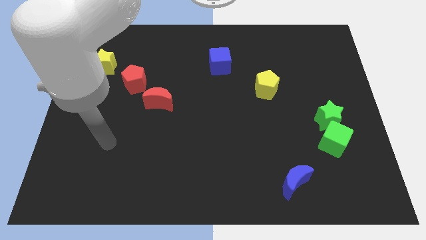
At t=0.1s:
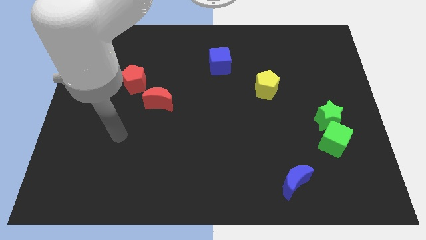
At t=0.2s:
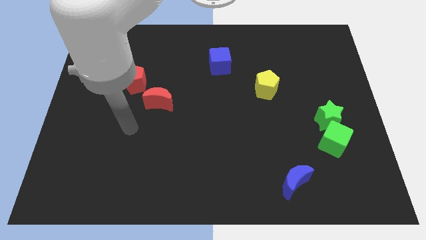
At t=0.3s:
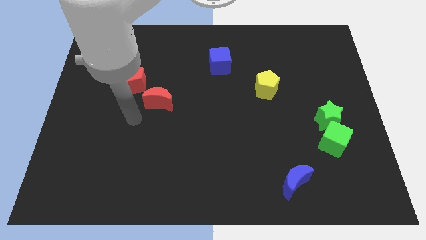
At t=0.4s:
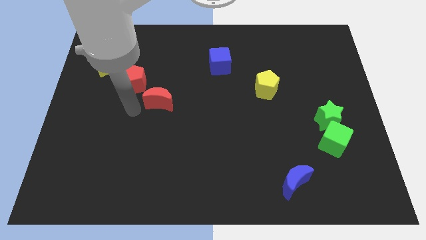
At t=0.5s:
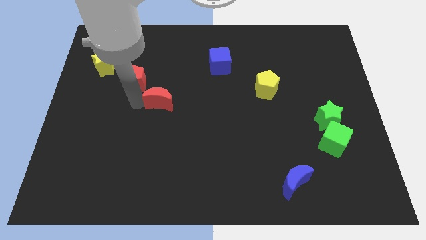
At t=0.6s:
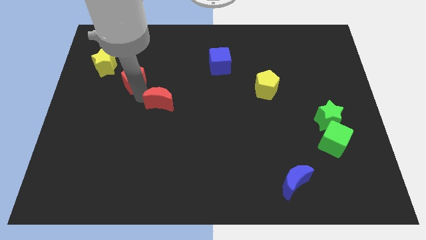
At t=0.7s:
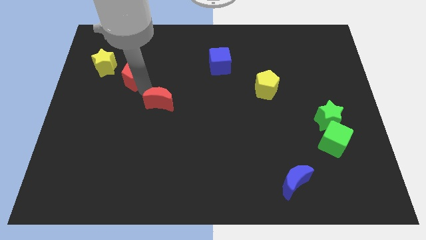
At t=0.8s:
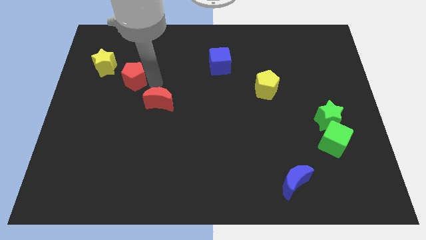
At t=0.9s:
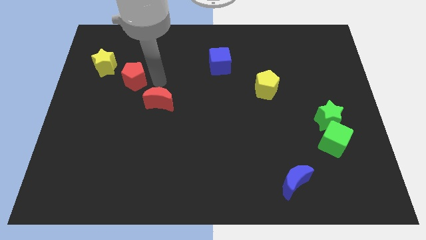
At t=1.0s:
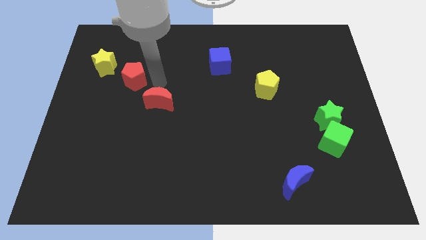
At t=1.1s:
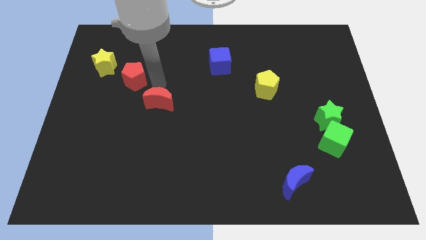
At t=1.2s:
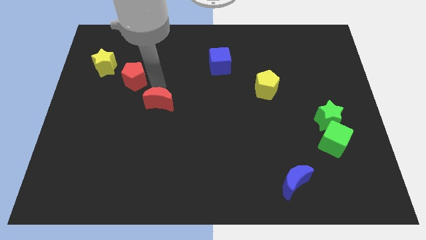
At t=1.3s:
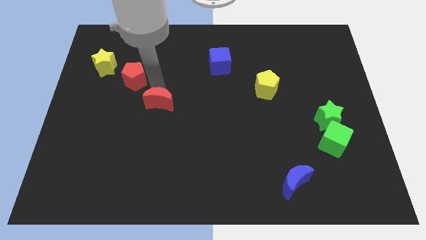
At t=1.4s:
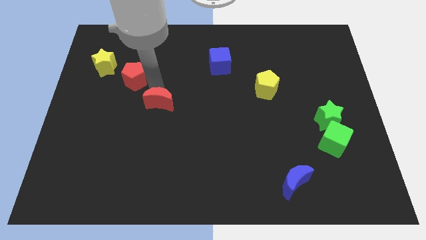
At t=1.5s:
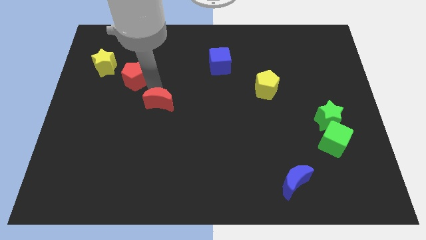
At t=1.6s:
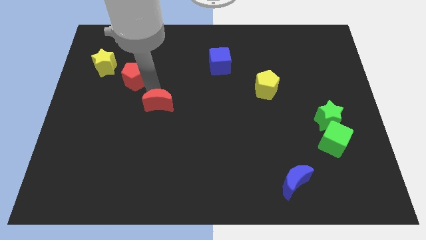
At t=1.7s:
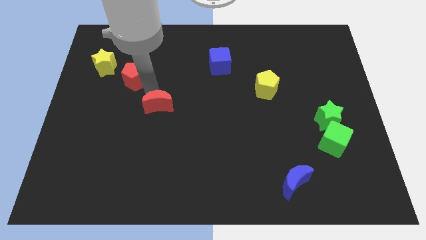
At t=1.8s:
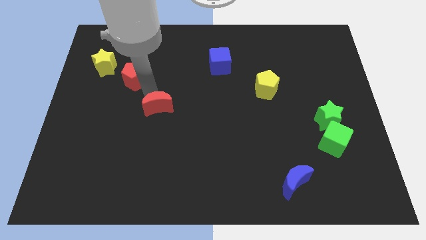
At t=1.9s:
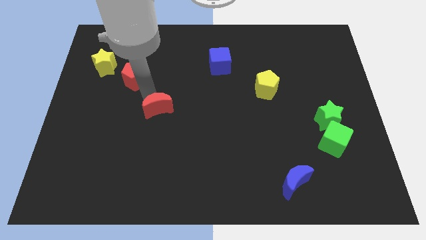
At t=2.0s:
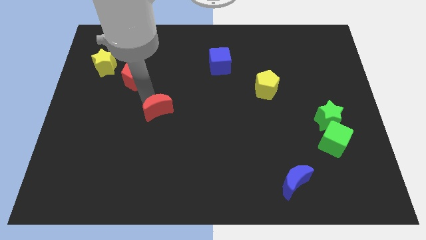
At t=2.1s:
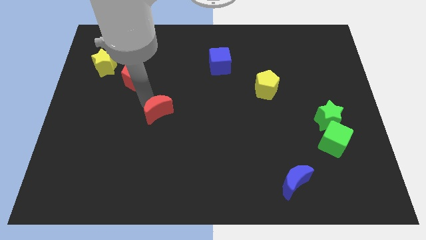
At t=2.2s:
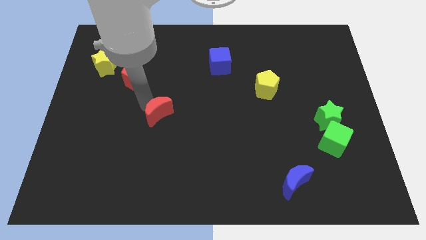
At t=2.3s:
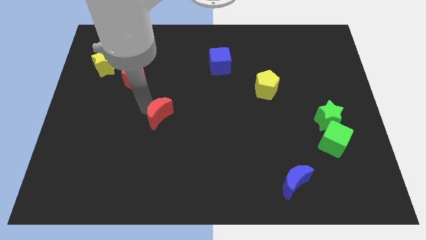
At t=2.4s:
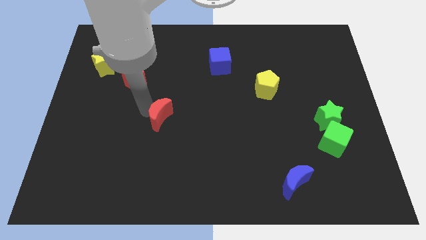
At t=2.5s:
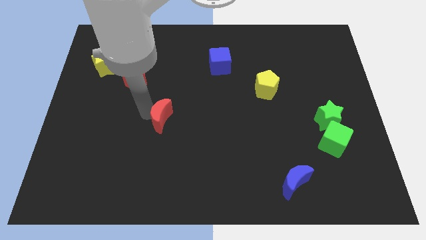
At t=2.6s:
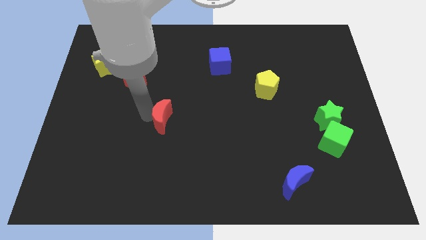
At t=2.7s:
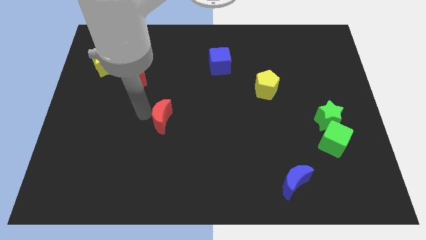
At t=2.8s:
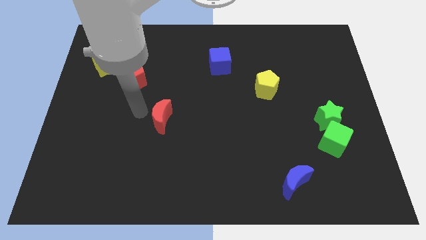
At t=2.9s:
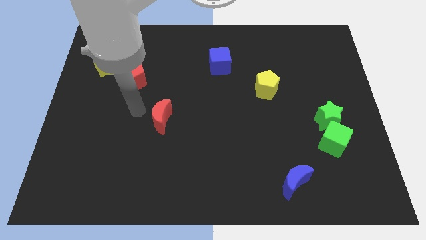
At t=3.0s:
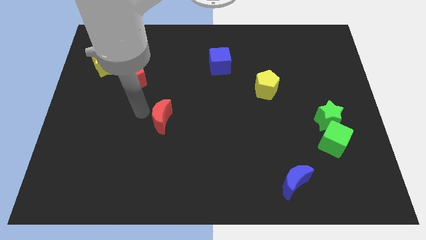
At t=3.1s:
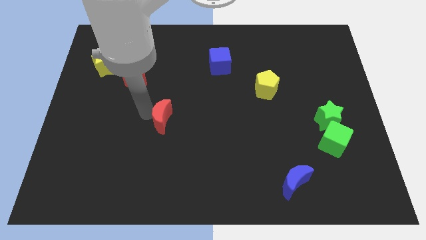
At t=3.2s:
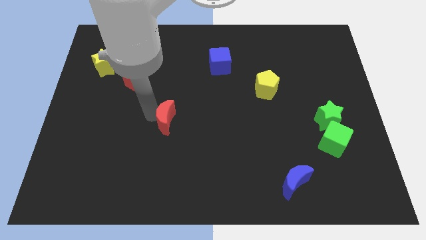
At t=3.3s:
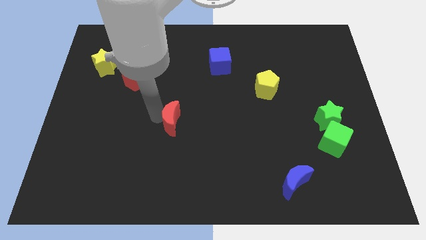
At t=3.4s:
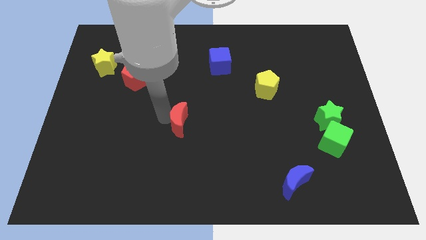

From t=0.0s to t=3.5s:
slide the red moon diagonally down and to the right slightly

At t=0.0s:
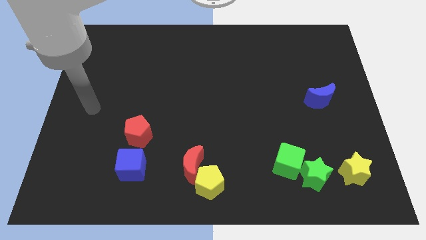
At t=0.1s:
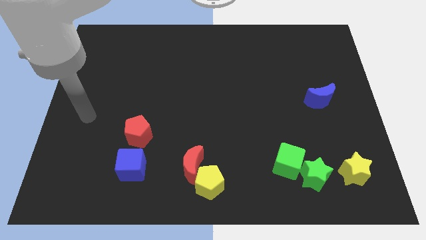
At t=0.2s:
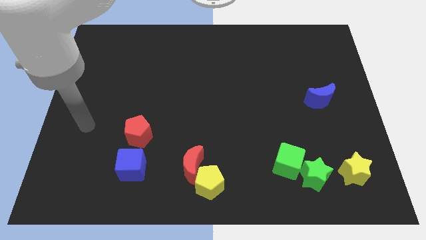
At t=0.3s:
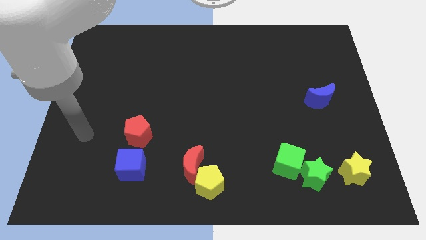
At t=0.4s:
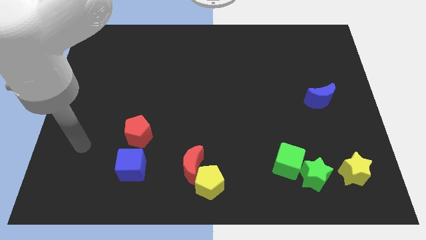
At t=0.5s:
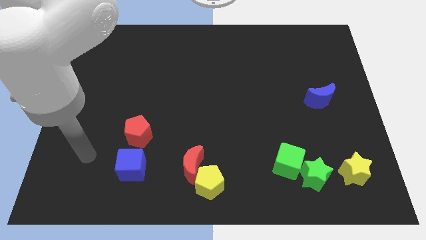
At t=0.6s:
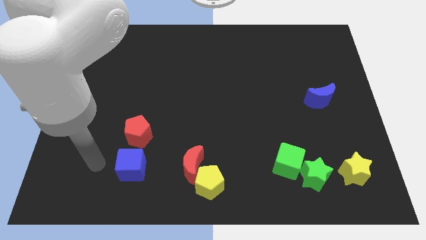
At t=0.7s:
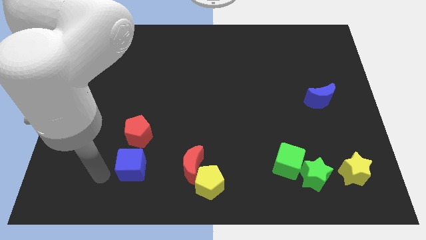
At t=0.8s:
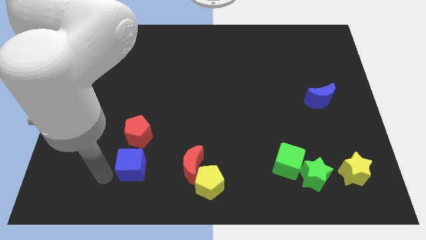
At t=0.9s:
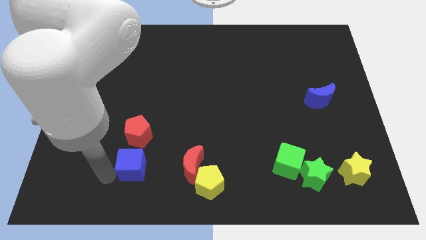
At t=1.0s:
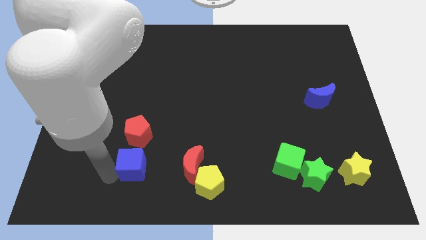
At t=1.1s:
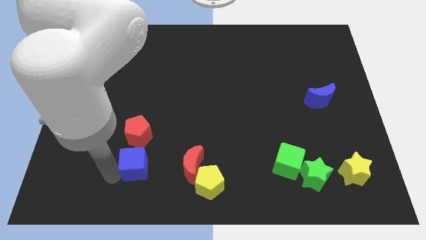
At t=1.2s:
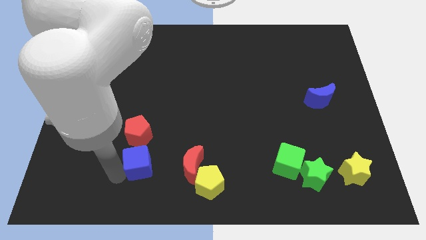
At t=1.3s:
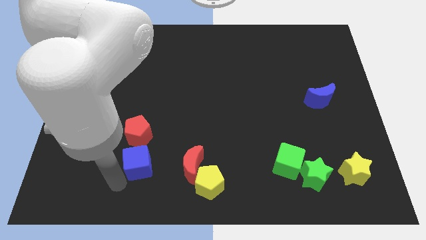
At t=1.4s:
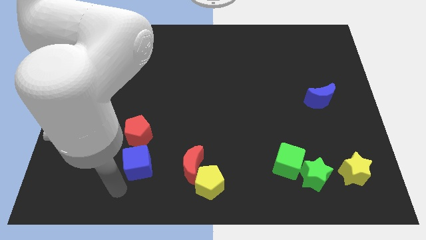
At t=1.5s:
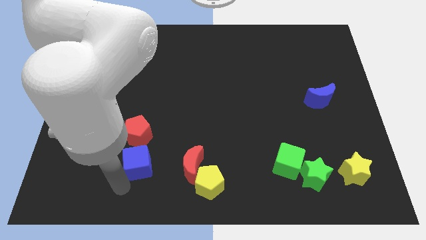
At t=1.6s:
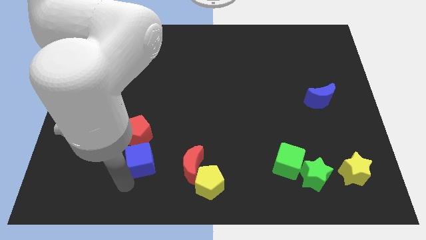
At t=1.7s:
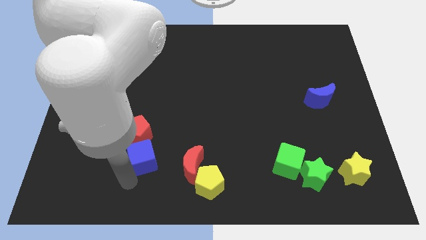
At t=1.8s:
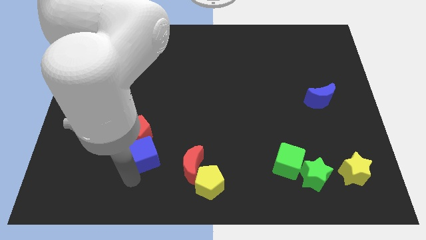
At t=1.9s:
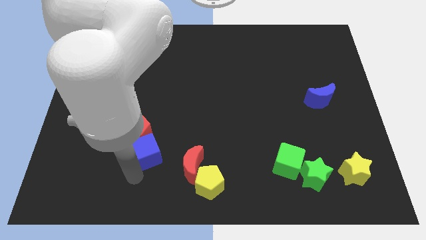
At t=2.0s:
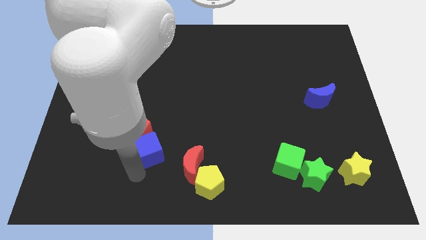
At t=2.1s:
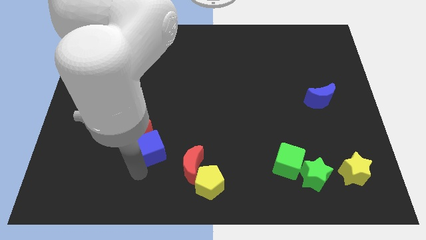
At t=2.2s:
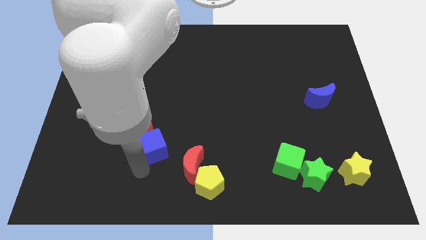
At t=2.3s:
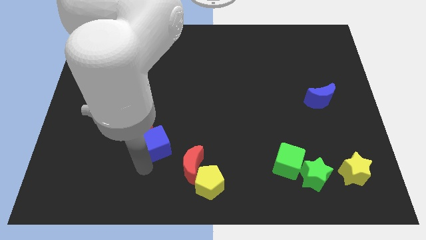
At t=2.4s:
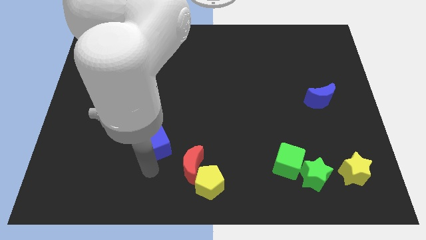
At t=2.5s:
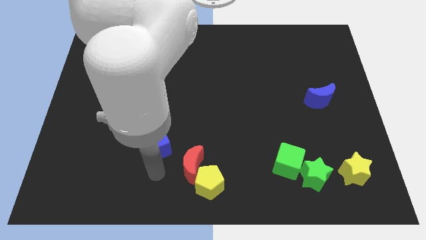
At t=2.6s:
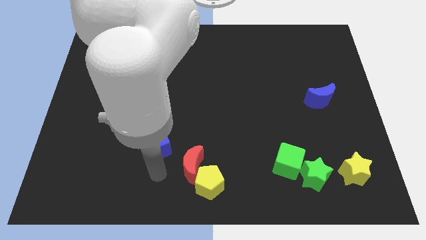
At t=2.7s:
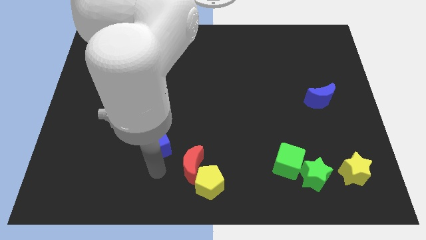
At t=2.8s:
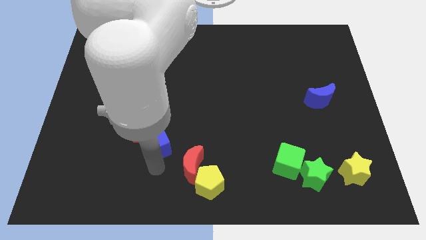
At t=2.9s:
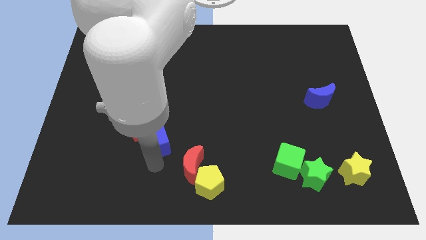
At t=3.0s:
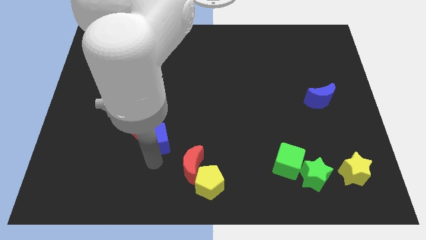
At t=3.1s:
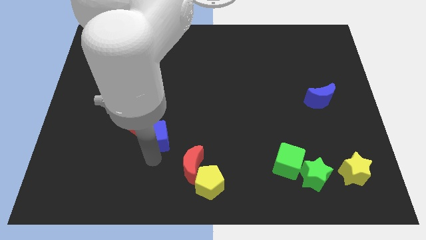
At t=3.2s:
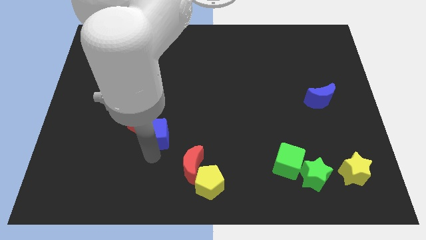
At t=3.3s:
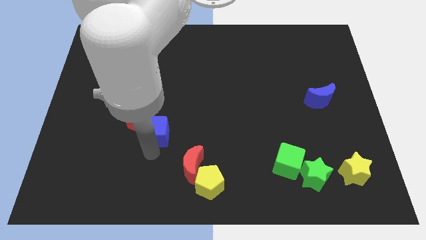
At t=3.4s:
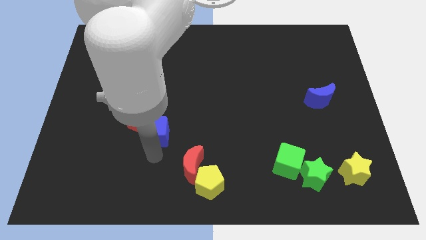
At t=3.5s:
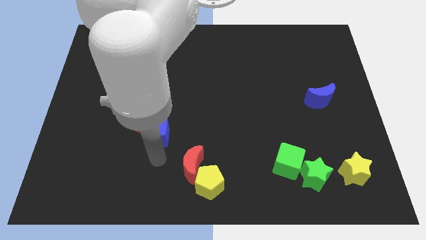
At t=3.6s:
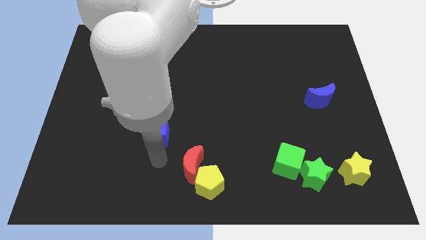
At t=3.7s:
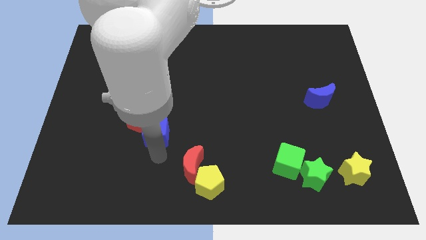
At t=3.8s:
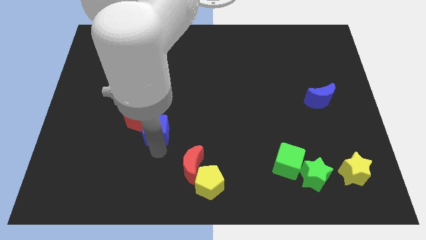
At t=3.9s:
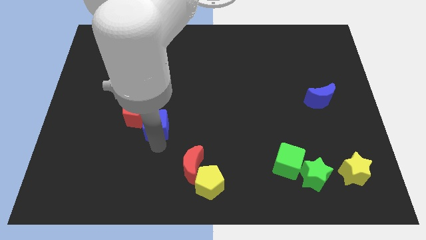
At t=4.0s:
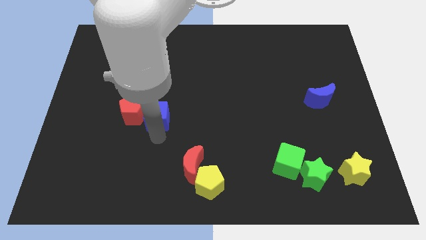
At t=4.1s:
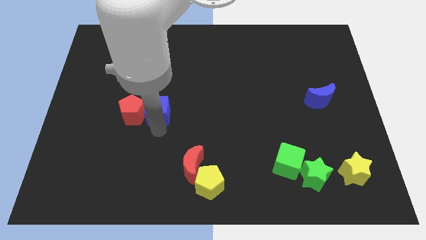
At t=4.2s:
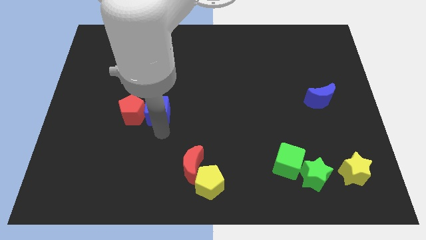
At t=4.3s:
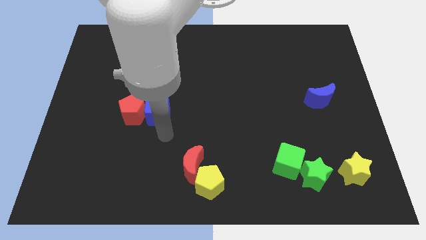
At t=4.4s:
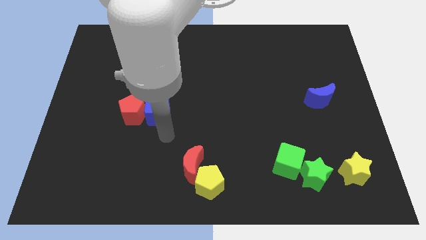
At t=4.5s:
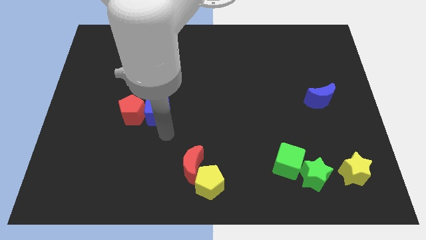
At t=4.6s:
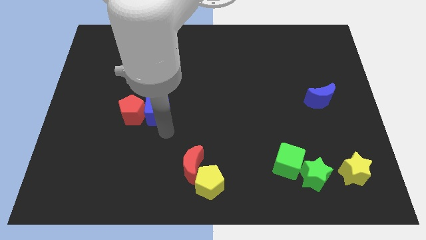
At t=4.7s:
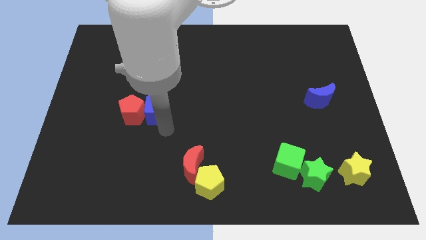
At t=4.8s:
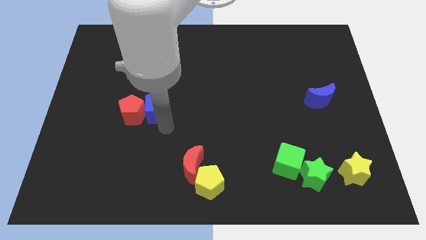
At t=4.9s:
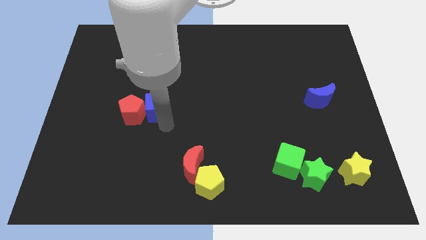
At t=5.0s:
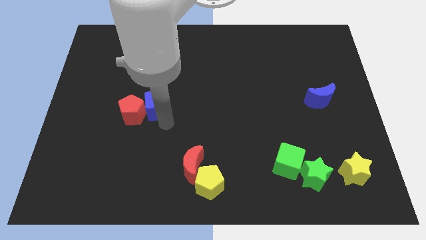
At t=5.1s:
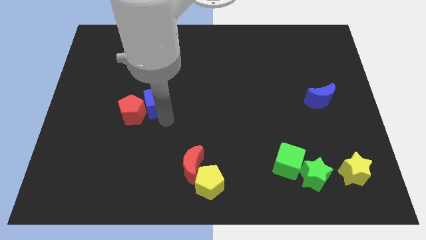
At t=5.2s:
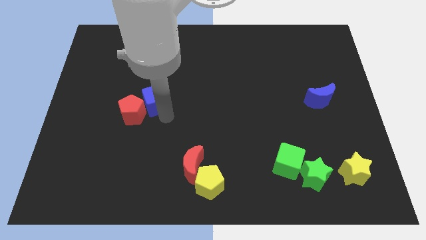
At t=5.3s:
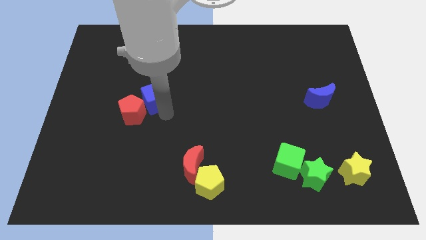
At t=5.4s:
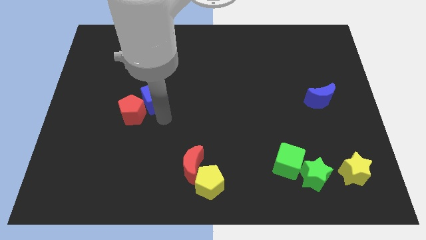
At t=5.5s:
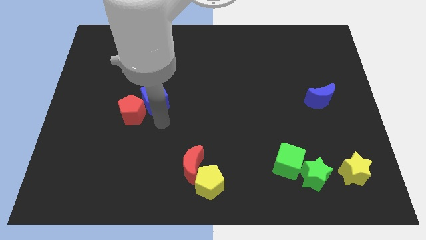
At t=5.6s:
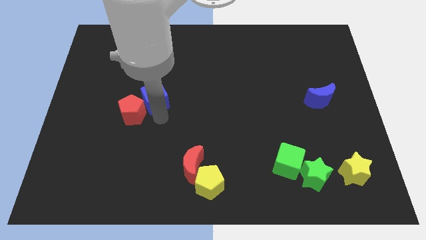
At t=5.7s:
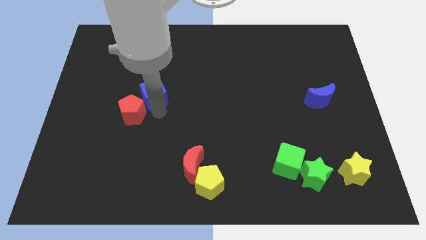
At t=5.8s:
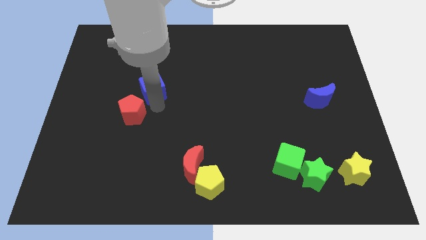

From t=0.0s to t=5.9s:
move the blue cube upwards
